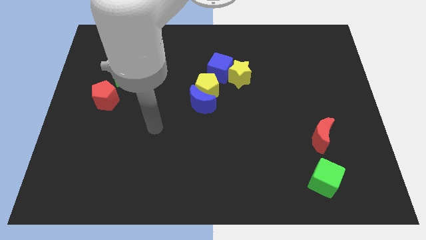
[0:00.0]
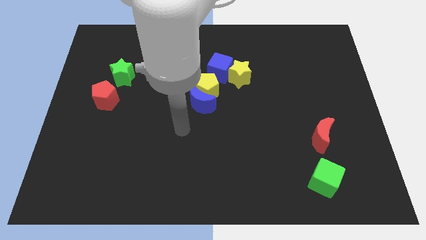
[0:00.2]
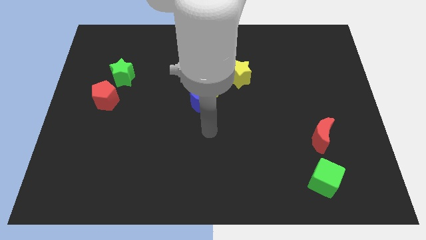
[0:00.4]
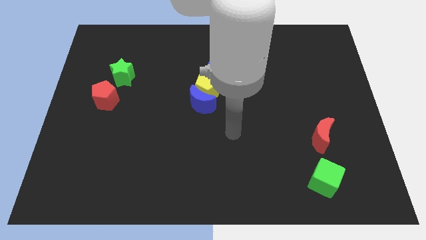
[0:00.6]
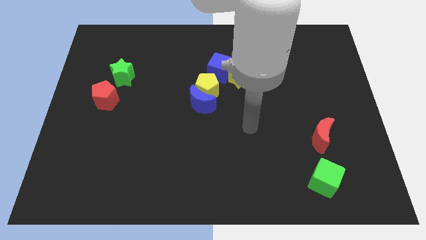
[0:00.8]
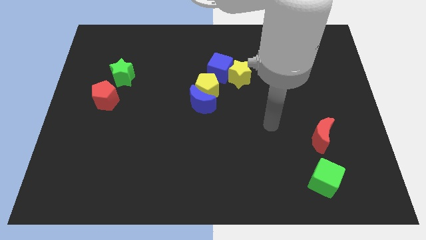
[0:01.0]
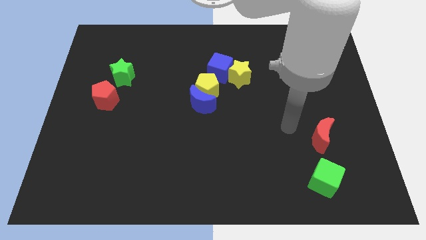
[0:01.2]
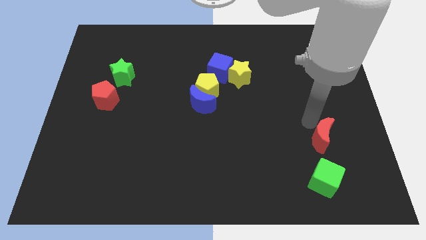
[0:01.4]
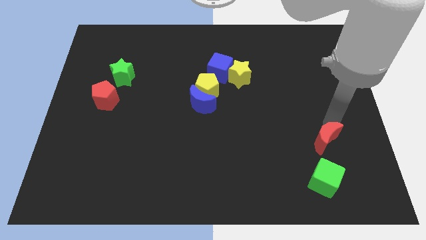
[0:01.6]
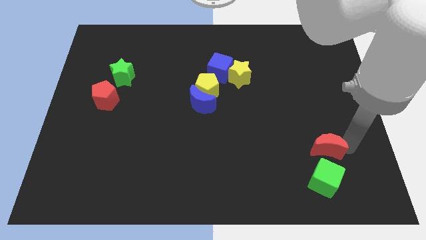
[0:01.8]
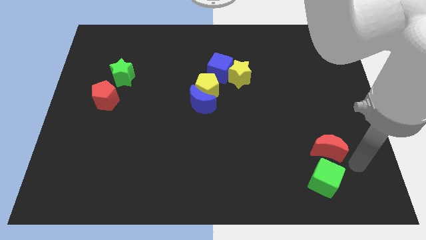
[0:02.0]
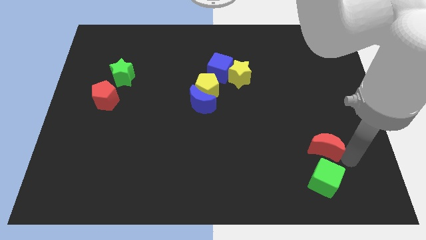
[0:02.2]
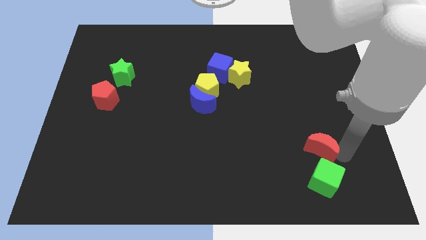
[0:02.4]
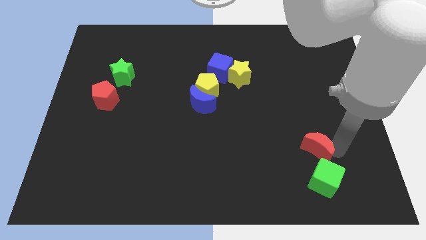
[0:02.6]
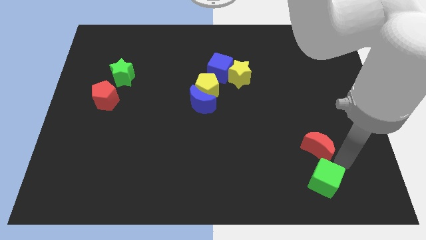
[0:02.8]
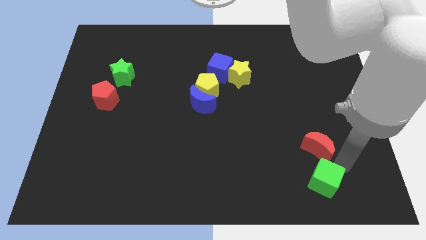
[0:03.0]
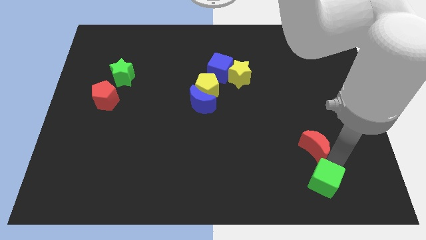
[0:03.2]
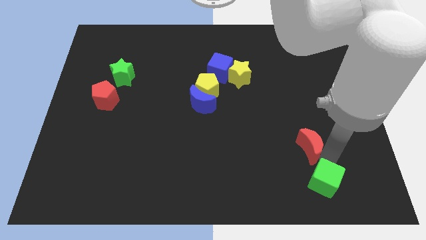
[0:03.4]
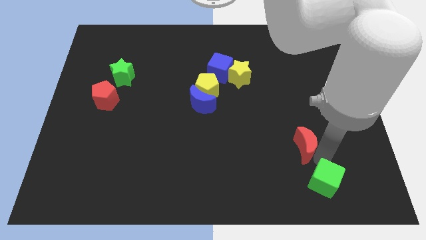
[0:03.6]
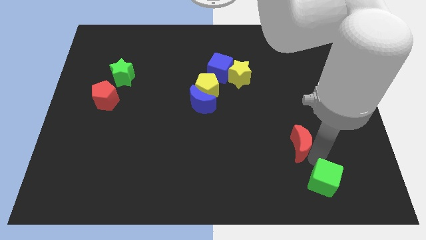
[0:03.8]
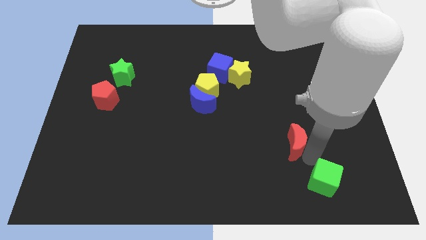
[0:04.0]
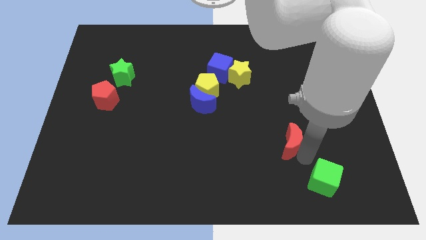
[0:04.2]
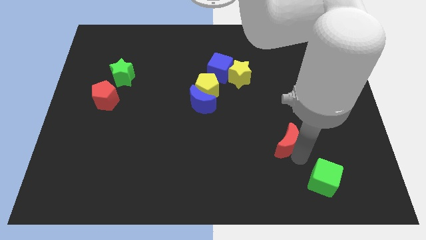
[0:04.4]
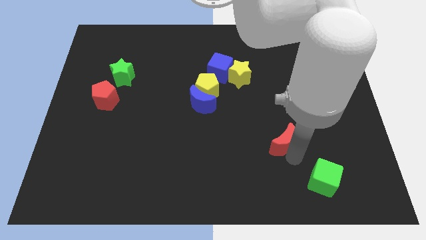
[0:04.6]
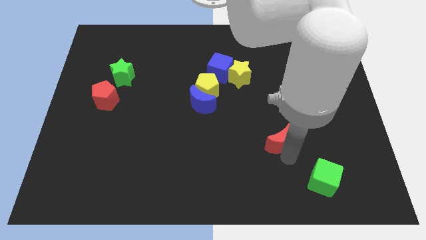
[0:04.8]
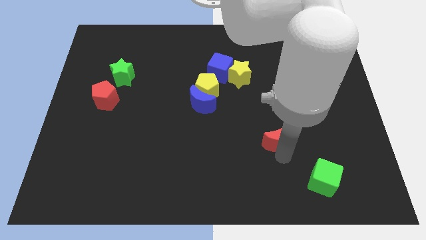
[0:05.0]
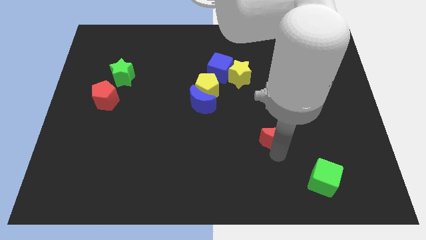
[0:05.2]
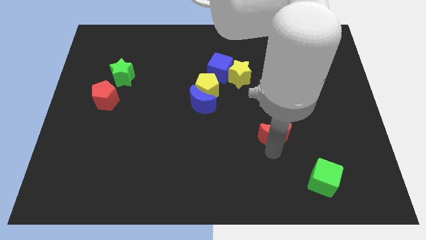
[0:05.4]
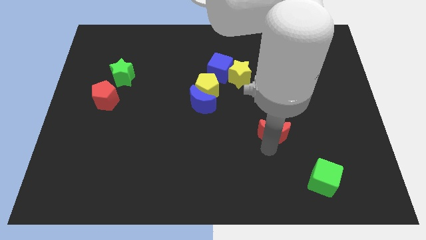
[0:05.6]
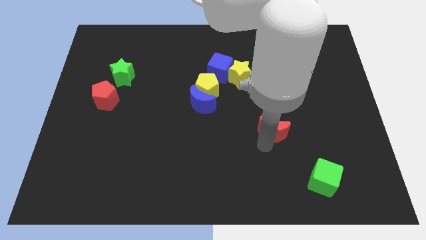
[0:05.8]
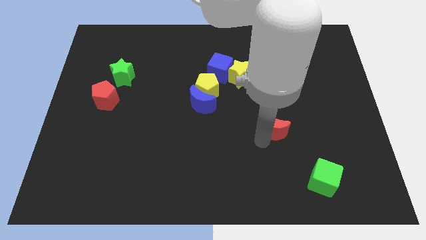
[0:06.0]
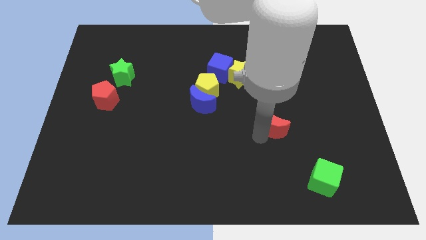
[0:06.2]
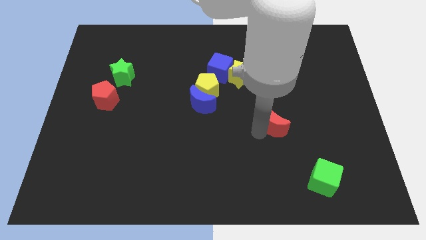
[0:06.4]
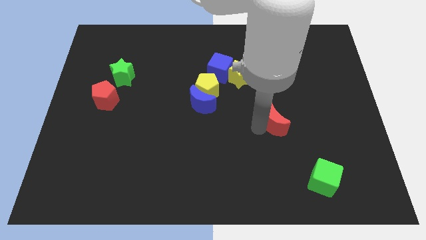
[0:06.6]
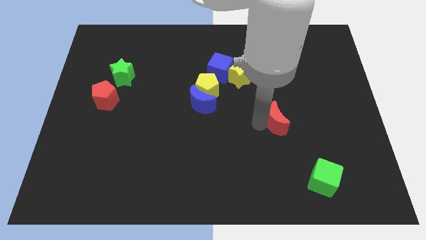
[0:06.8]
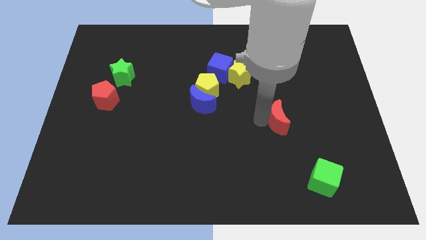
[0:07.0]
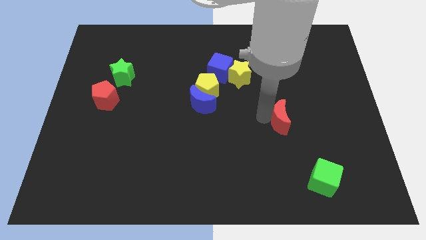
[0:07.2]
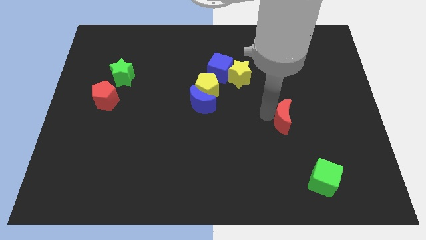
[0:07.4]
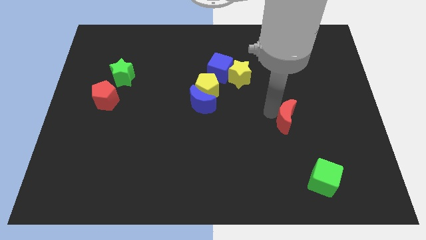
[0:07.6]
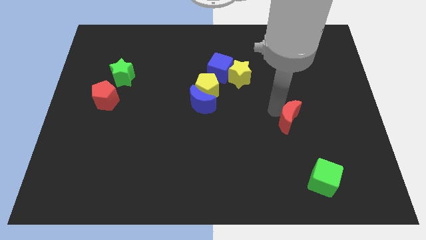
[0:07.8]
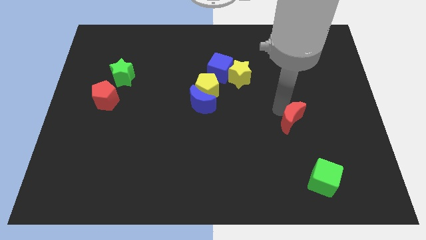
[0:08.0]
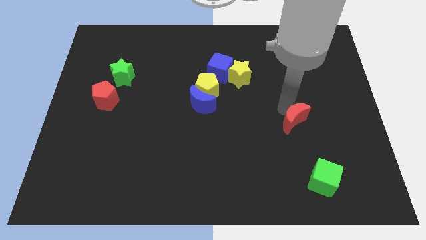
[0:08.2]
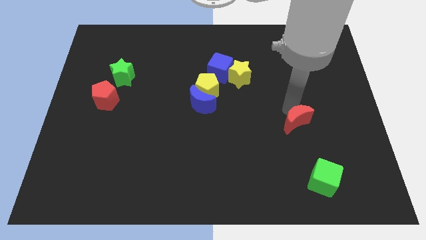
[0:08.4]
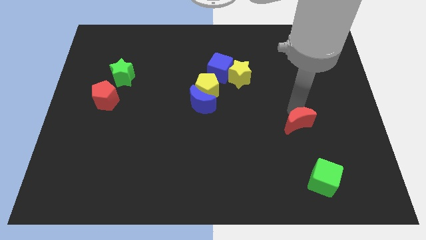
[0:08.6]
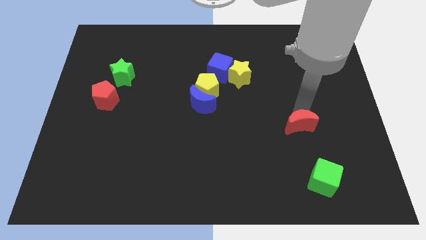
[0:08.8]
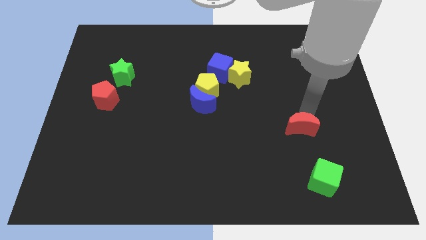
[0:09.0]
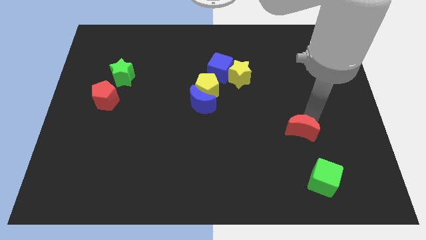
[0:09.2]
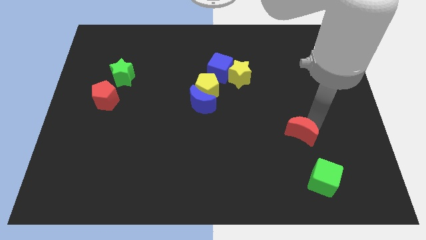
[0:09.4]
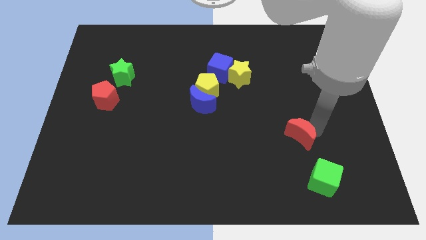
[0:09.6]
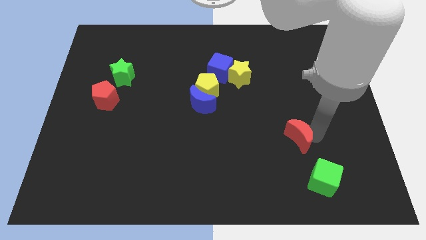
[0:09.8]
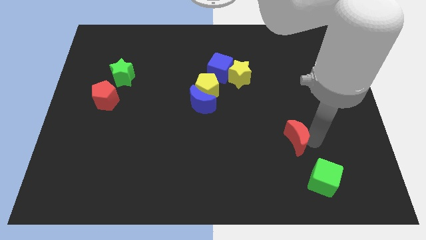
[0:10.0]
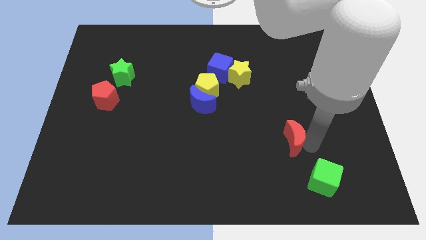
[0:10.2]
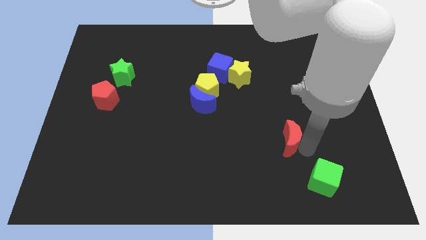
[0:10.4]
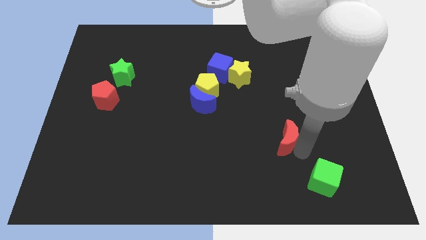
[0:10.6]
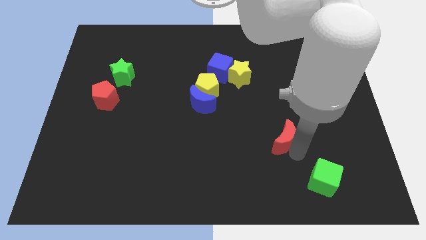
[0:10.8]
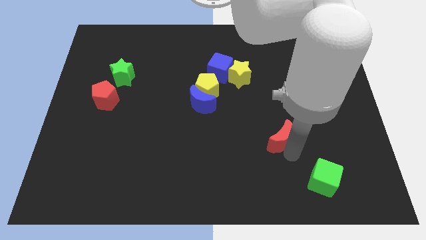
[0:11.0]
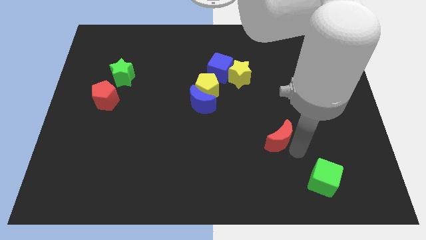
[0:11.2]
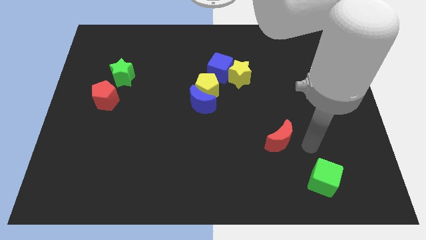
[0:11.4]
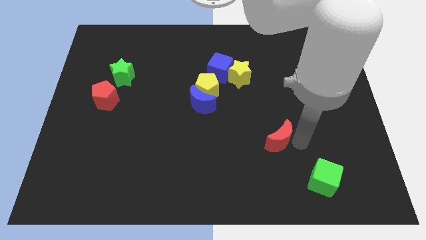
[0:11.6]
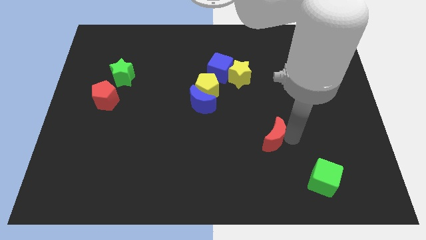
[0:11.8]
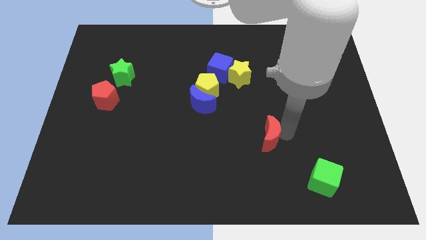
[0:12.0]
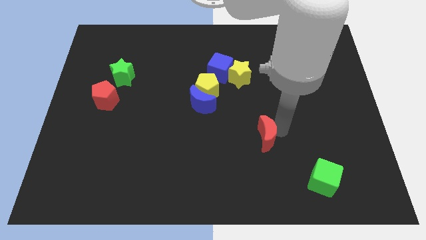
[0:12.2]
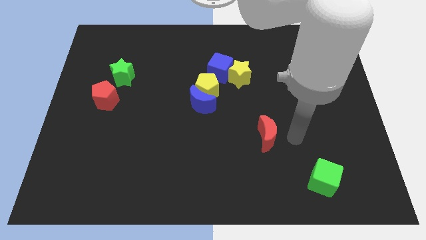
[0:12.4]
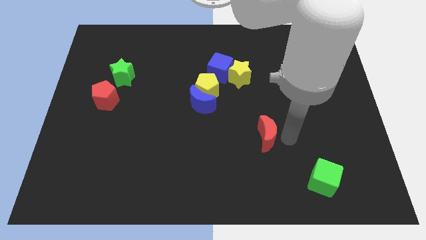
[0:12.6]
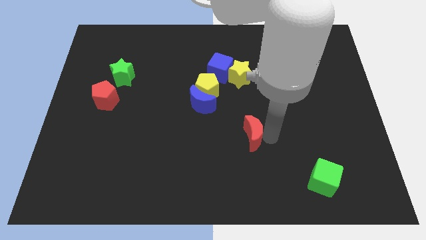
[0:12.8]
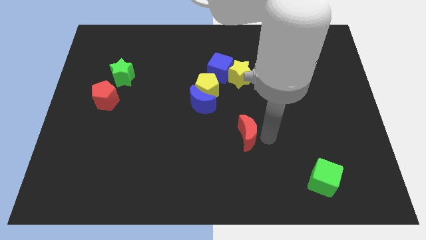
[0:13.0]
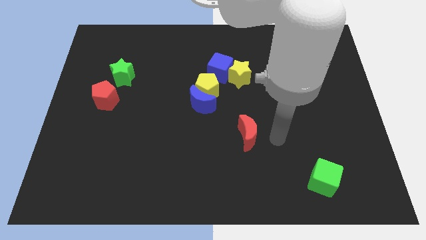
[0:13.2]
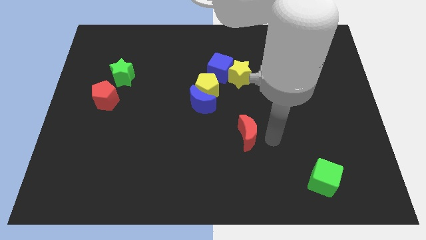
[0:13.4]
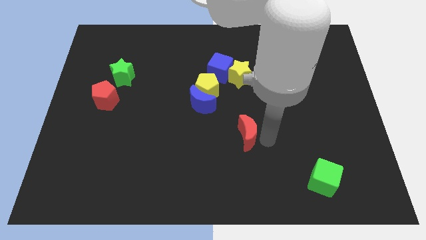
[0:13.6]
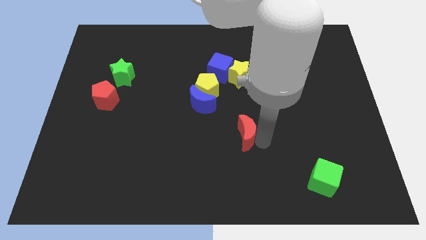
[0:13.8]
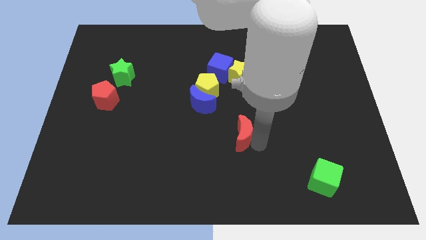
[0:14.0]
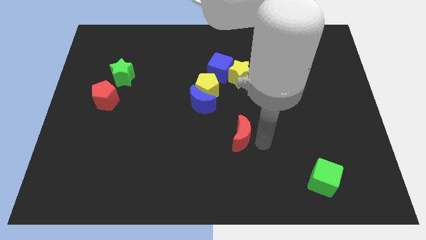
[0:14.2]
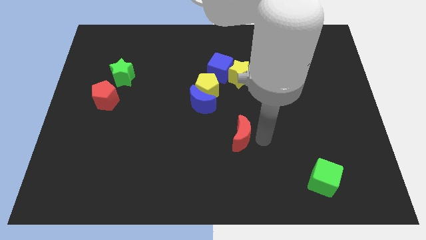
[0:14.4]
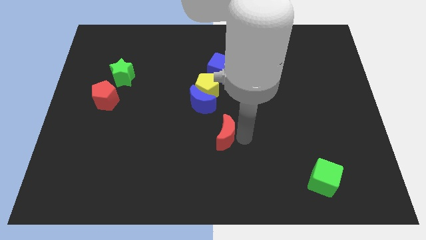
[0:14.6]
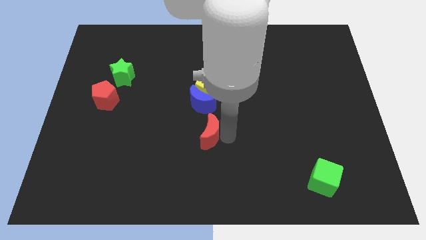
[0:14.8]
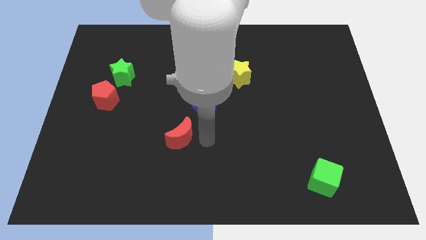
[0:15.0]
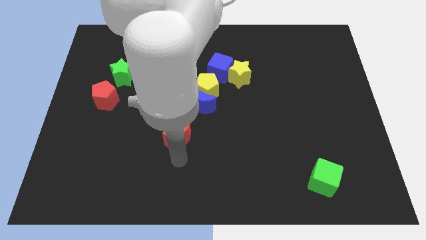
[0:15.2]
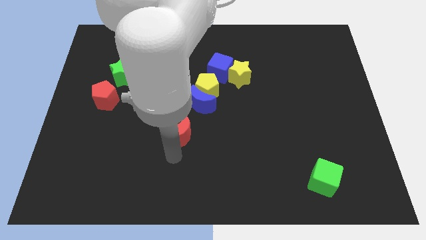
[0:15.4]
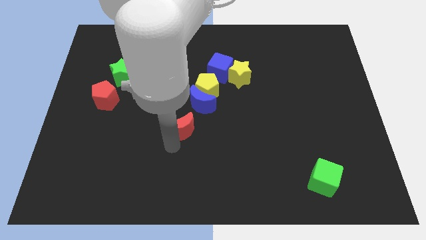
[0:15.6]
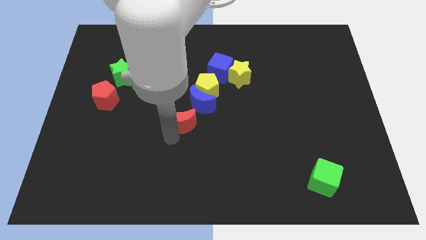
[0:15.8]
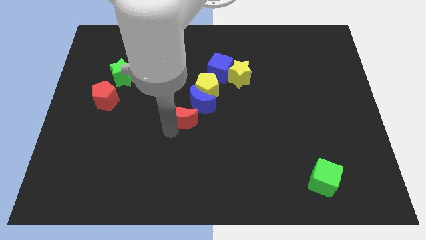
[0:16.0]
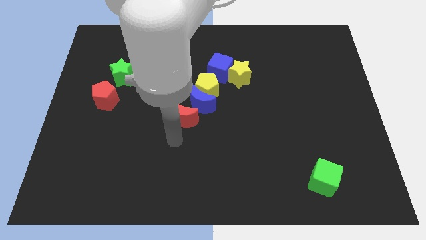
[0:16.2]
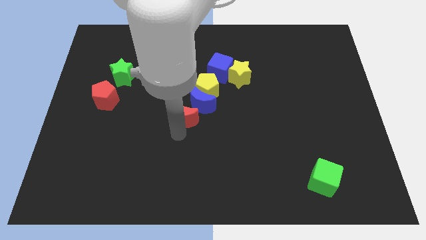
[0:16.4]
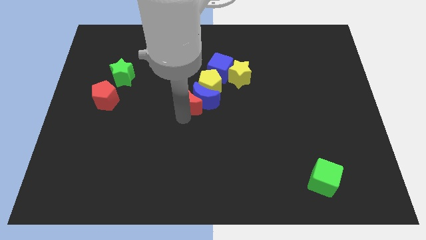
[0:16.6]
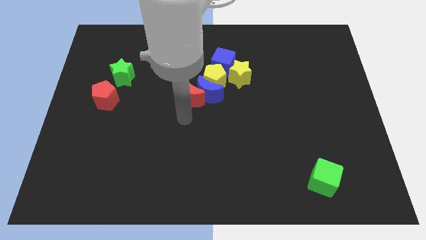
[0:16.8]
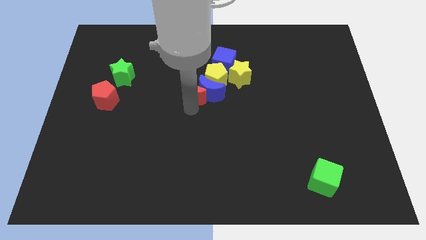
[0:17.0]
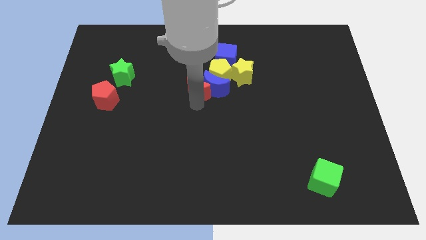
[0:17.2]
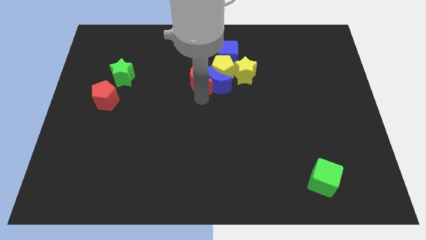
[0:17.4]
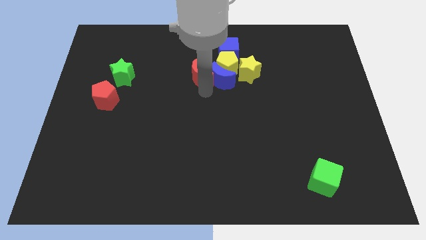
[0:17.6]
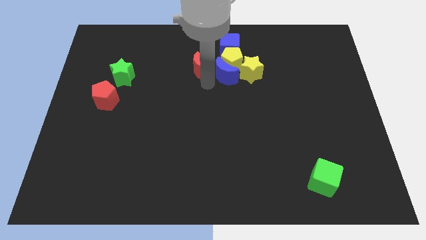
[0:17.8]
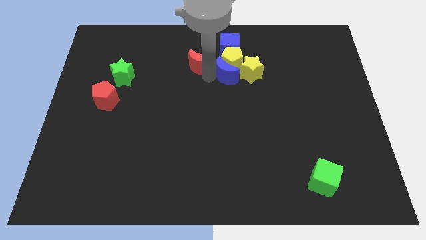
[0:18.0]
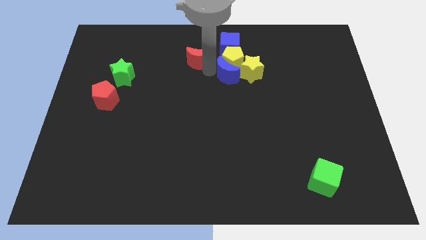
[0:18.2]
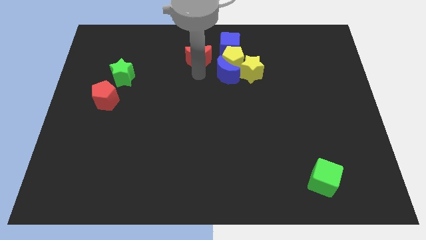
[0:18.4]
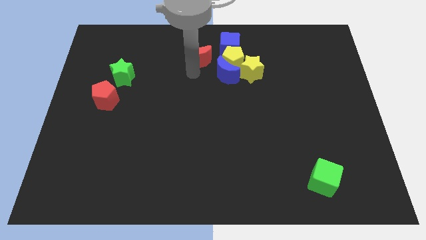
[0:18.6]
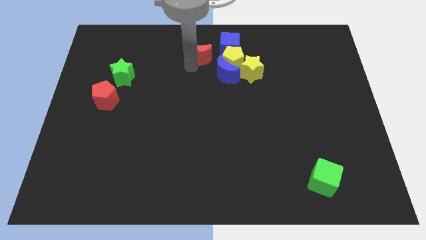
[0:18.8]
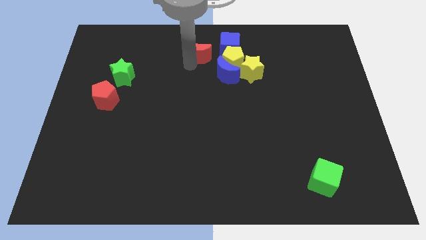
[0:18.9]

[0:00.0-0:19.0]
put the red moon to the top
